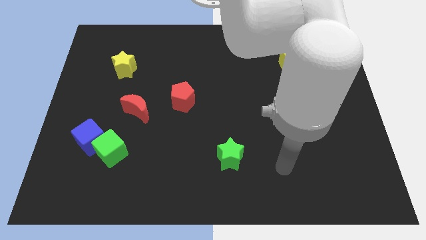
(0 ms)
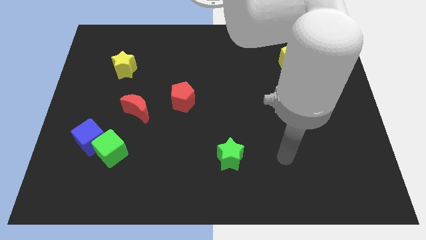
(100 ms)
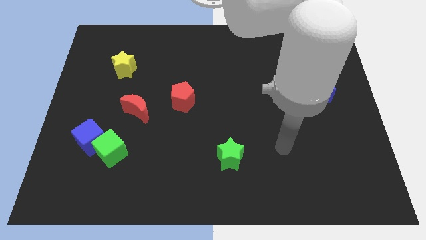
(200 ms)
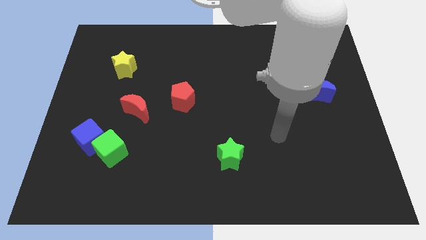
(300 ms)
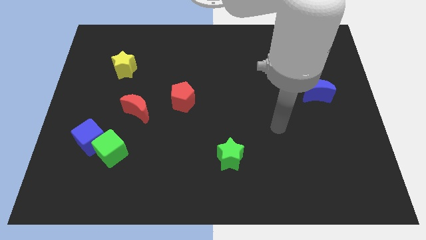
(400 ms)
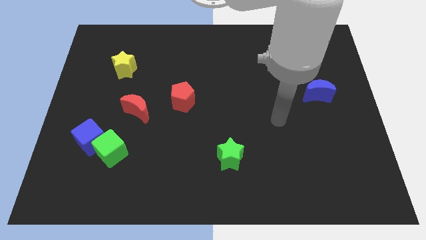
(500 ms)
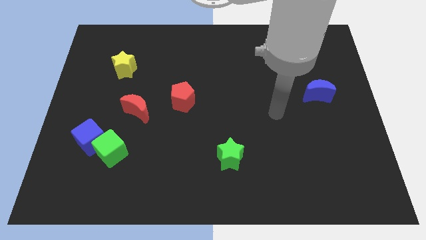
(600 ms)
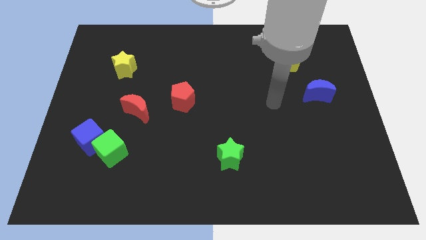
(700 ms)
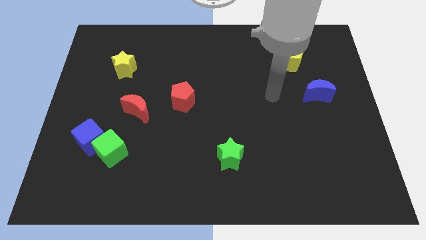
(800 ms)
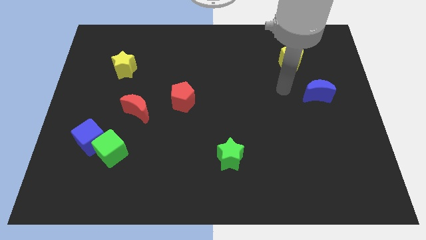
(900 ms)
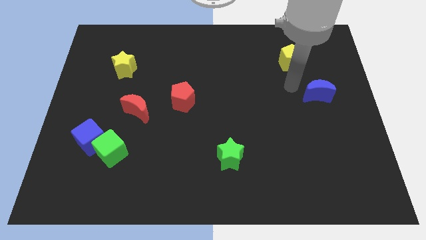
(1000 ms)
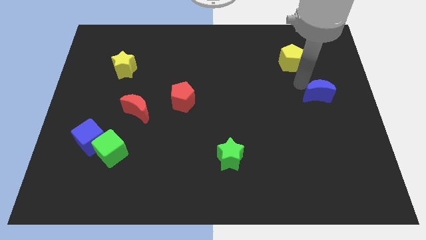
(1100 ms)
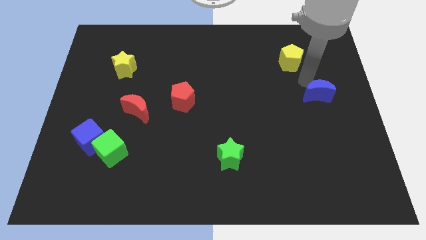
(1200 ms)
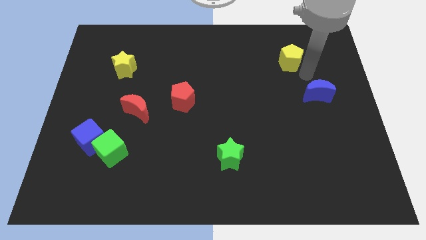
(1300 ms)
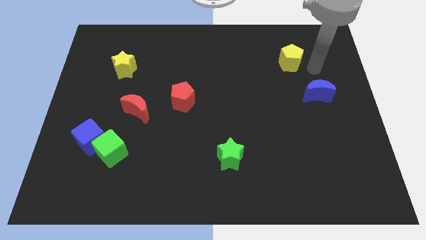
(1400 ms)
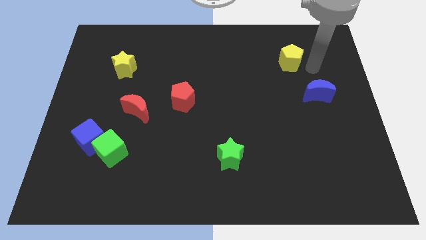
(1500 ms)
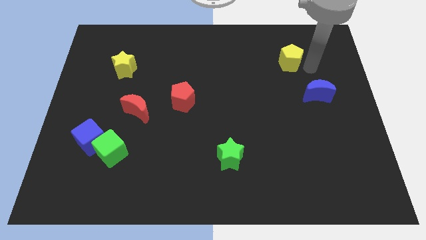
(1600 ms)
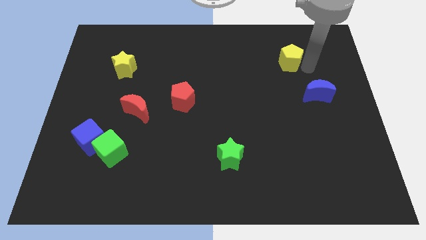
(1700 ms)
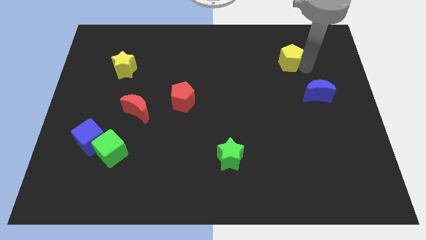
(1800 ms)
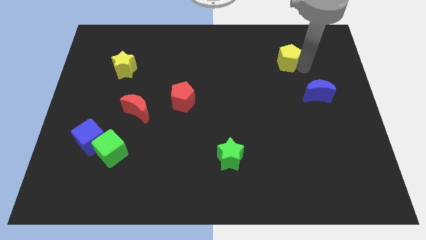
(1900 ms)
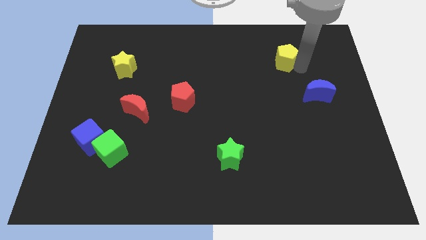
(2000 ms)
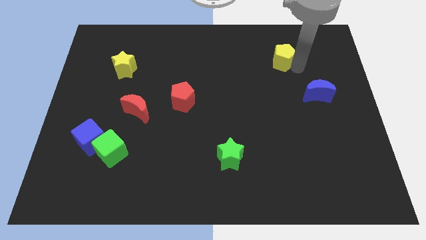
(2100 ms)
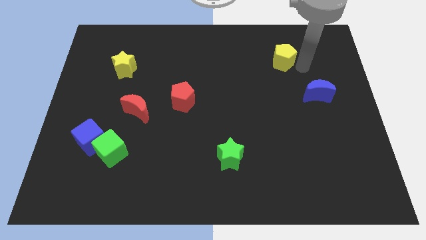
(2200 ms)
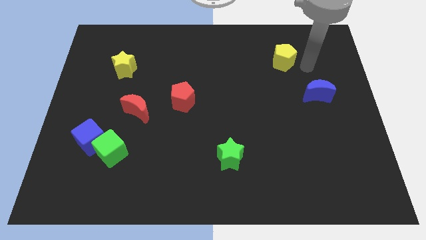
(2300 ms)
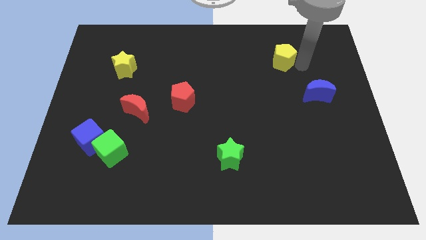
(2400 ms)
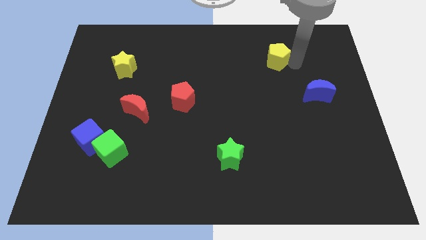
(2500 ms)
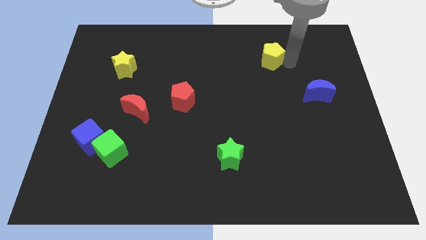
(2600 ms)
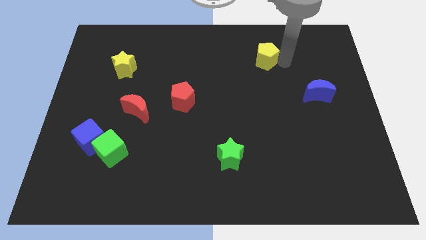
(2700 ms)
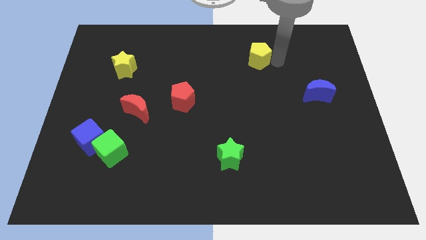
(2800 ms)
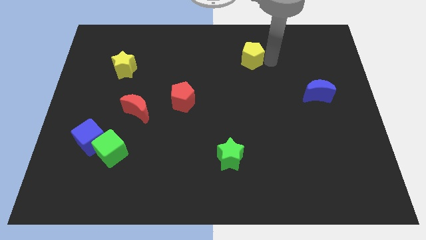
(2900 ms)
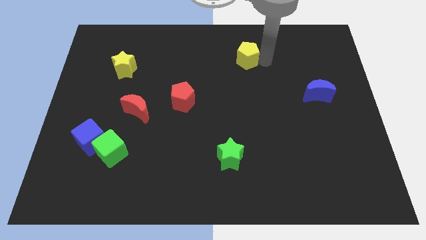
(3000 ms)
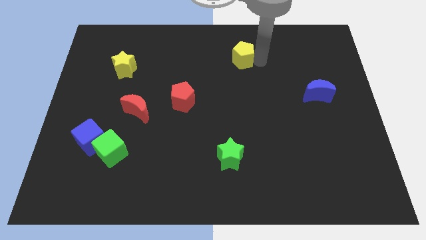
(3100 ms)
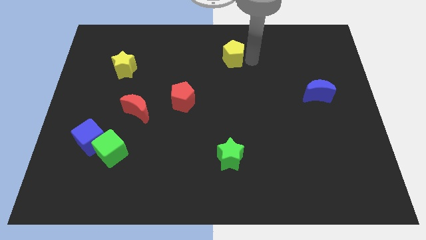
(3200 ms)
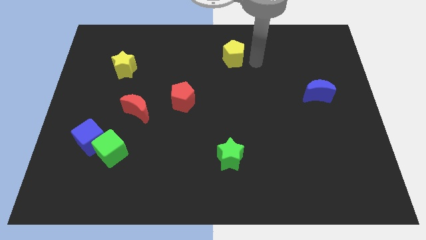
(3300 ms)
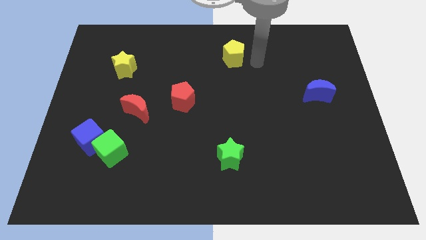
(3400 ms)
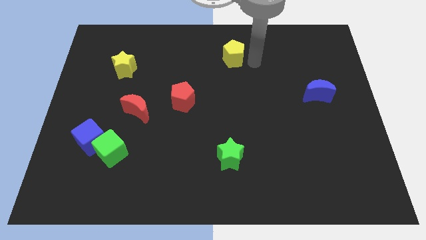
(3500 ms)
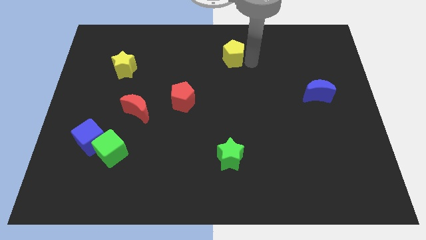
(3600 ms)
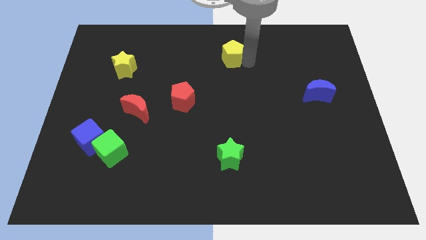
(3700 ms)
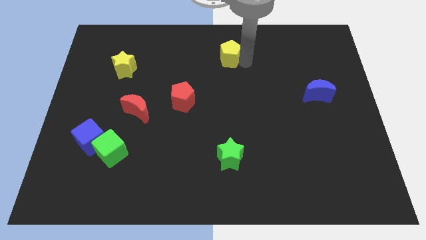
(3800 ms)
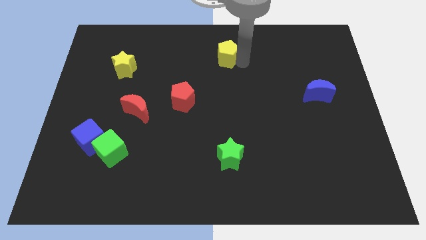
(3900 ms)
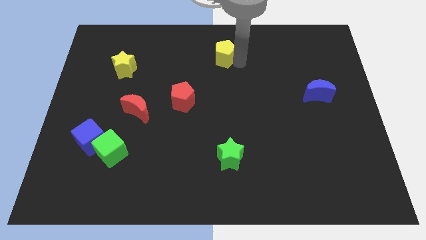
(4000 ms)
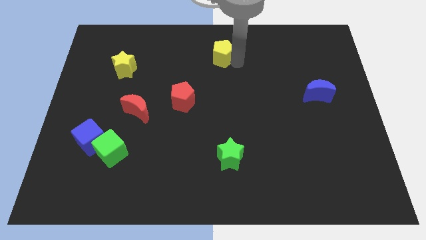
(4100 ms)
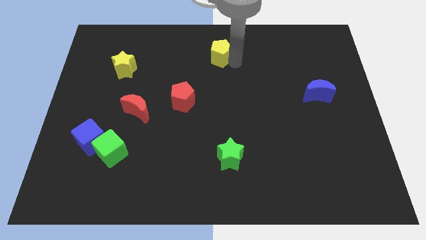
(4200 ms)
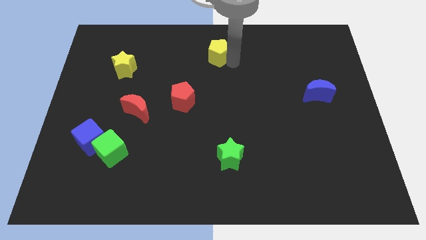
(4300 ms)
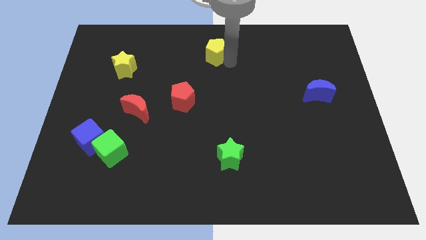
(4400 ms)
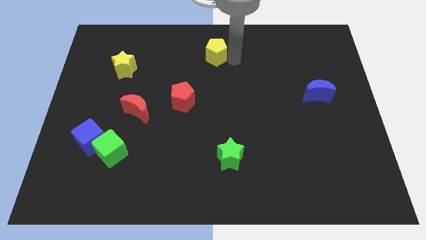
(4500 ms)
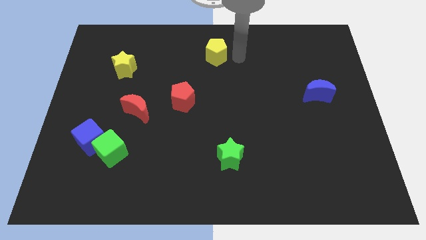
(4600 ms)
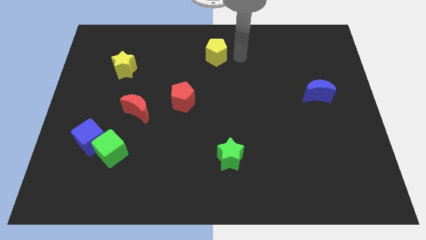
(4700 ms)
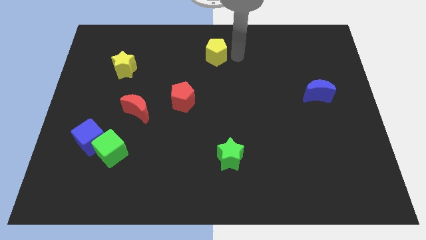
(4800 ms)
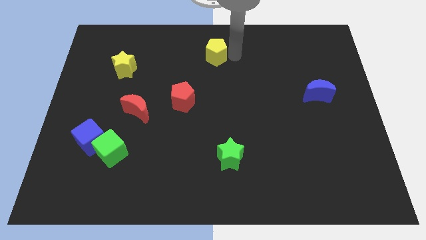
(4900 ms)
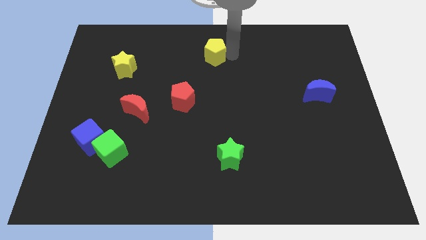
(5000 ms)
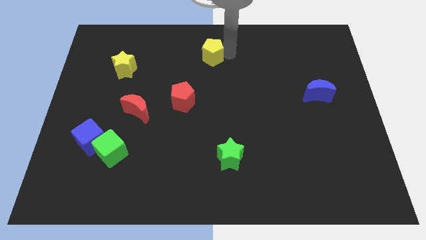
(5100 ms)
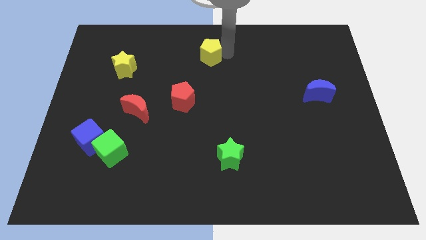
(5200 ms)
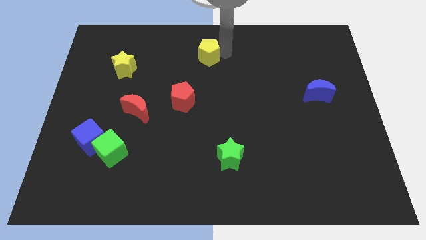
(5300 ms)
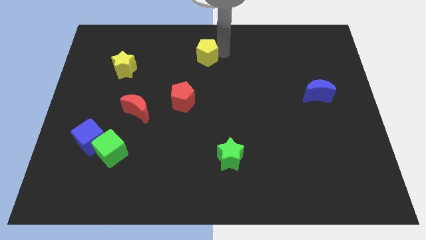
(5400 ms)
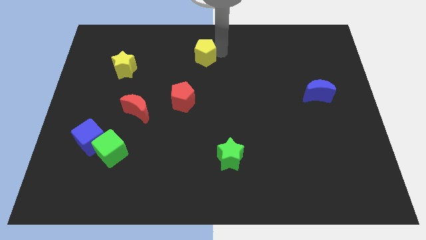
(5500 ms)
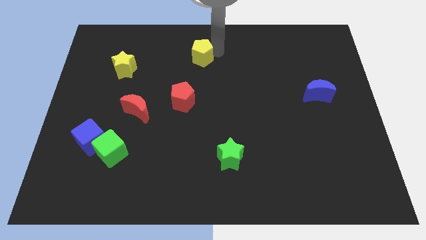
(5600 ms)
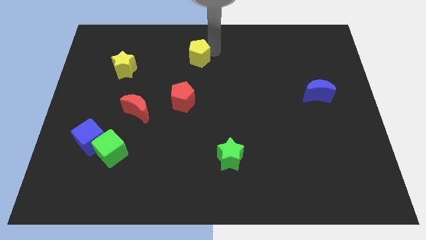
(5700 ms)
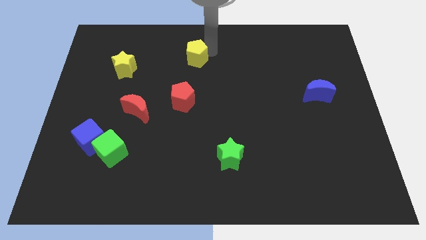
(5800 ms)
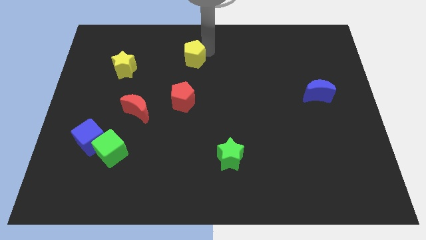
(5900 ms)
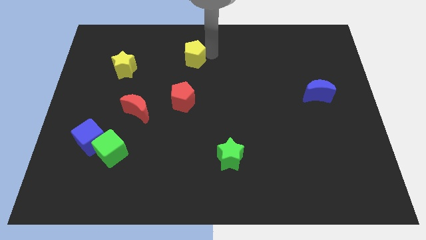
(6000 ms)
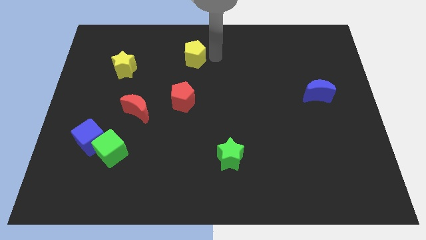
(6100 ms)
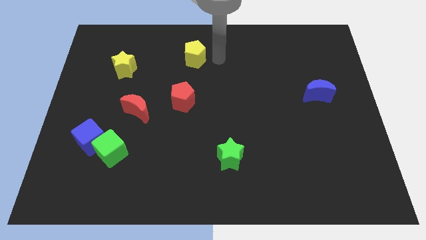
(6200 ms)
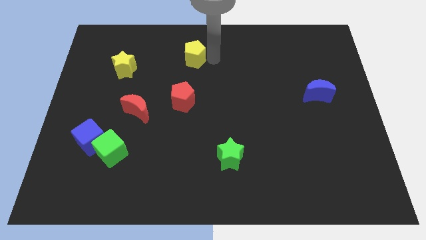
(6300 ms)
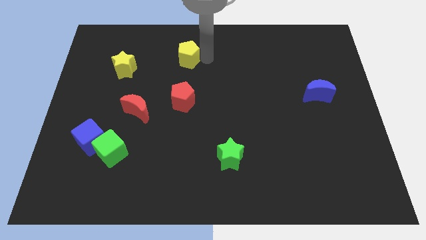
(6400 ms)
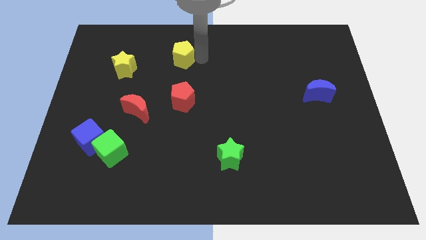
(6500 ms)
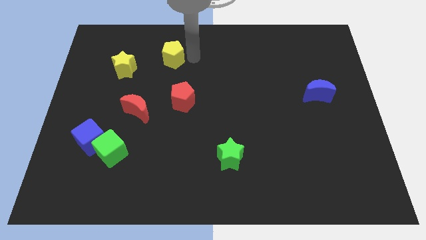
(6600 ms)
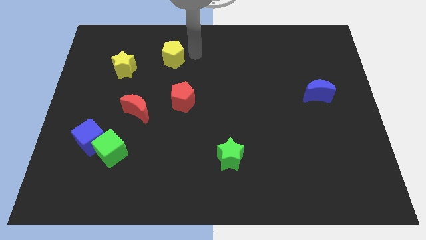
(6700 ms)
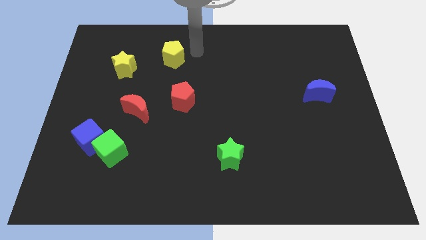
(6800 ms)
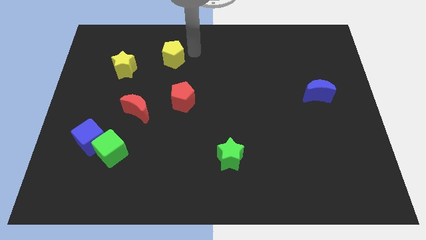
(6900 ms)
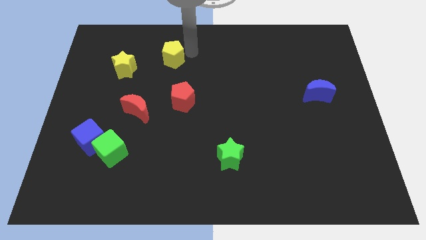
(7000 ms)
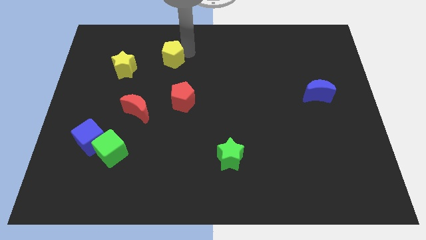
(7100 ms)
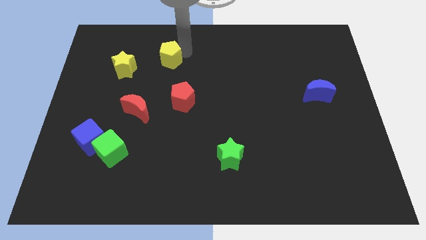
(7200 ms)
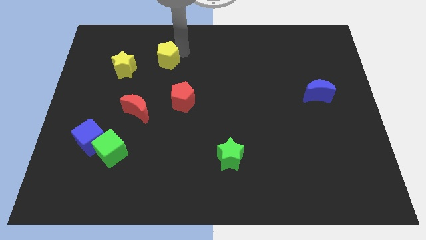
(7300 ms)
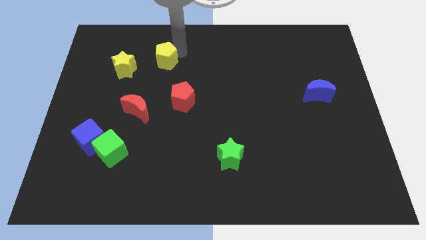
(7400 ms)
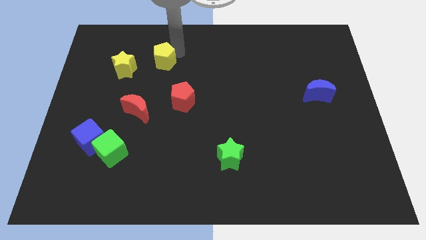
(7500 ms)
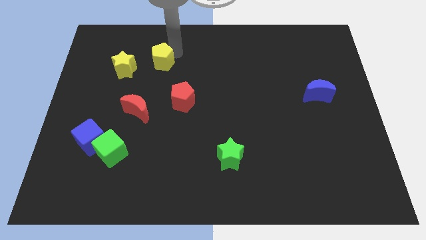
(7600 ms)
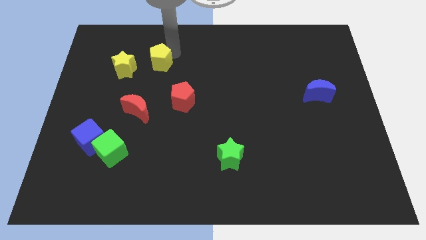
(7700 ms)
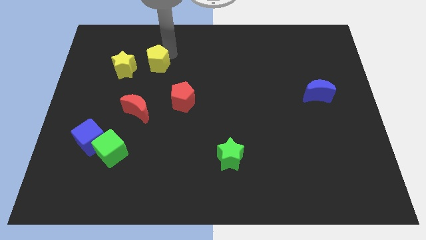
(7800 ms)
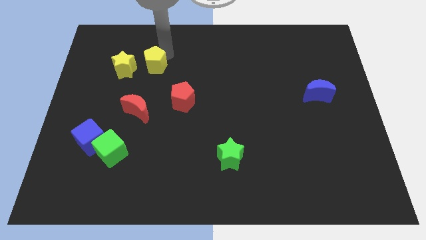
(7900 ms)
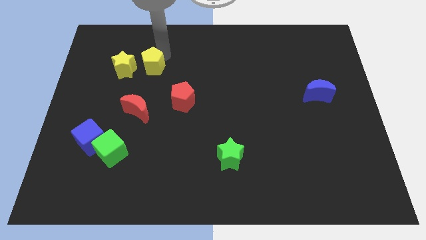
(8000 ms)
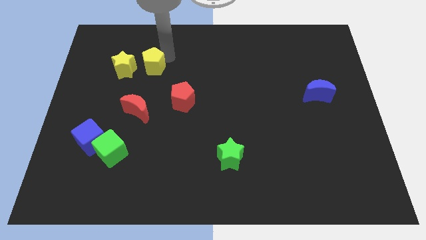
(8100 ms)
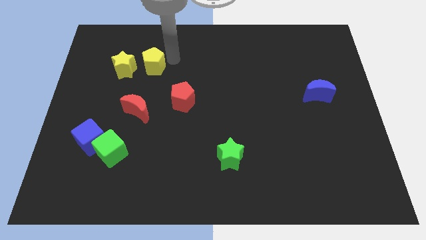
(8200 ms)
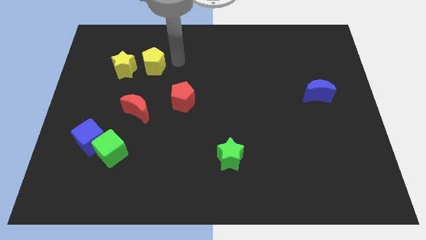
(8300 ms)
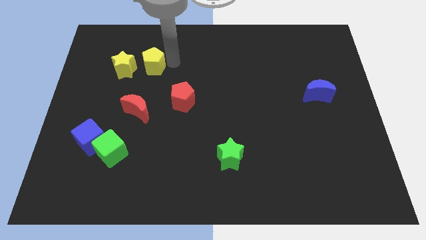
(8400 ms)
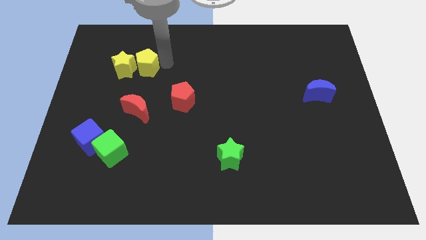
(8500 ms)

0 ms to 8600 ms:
slide the yellow pentagon to the yellow star
